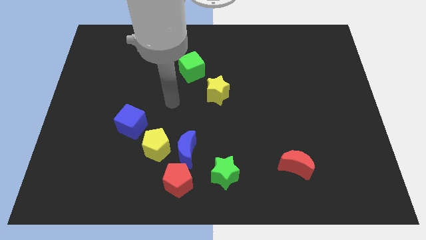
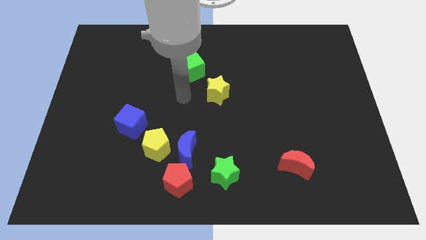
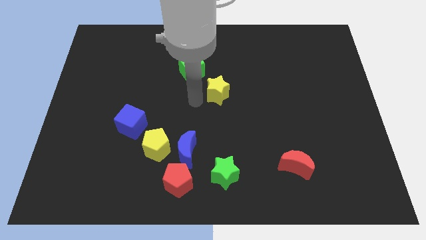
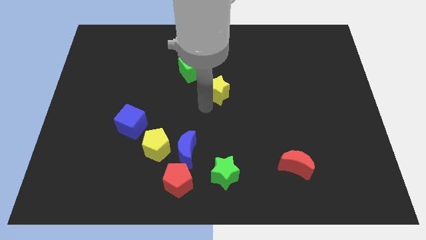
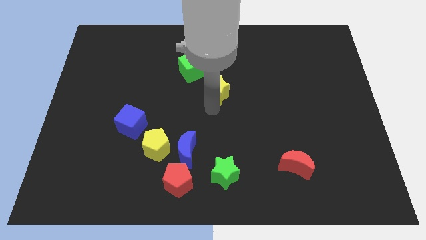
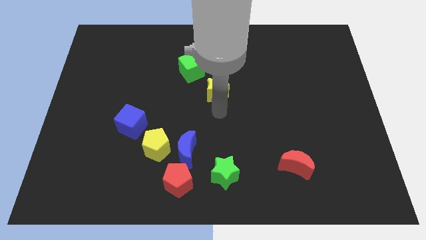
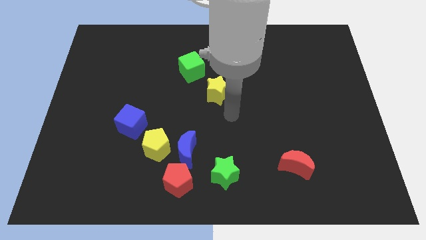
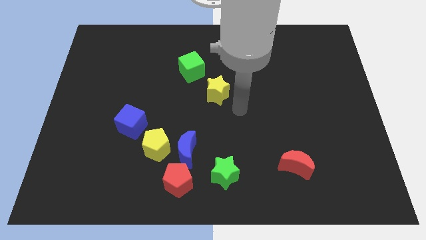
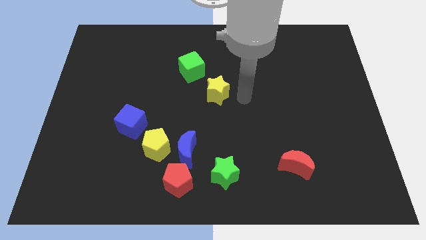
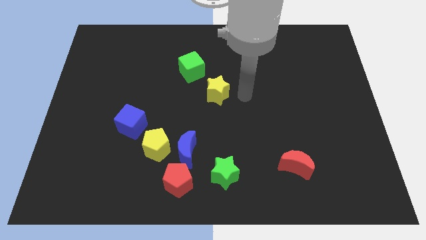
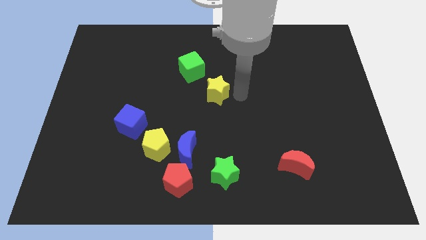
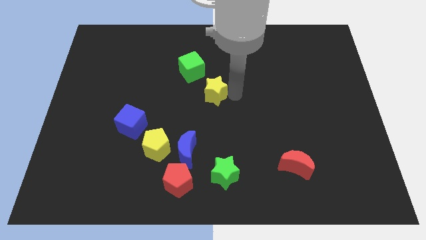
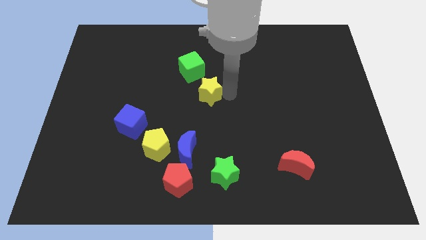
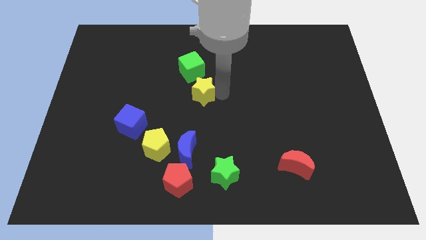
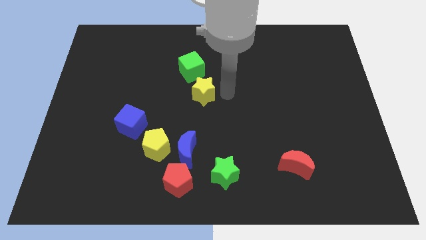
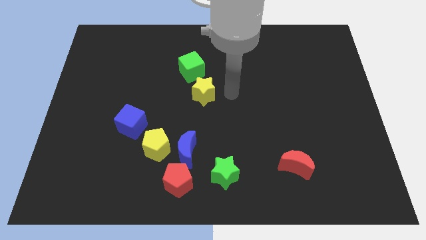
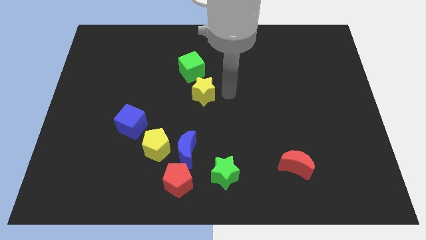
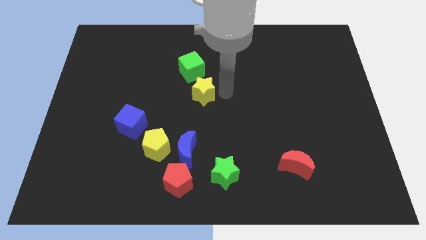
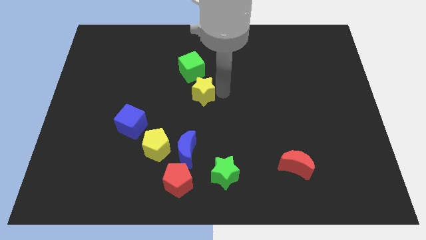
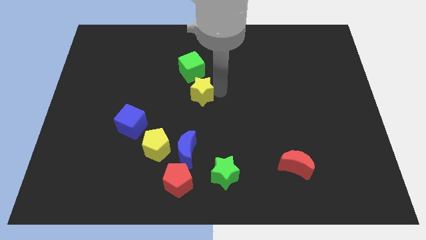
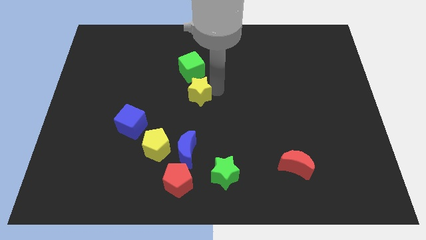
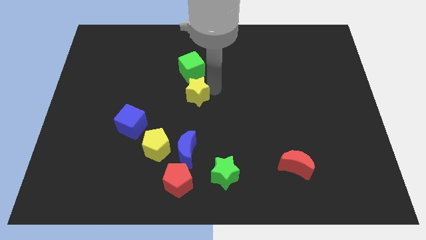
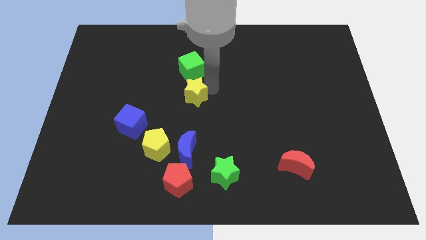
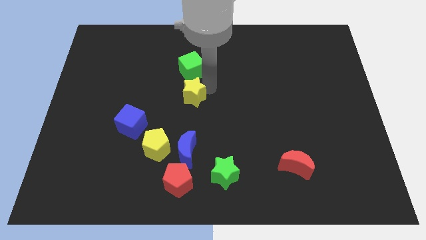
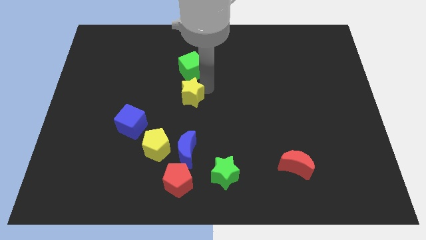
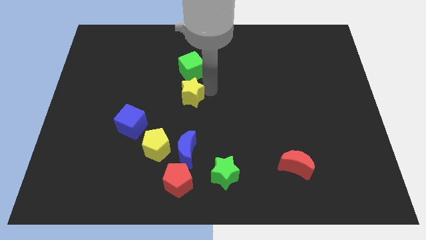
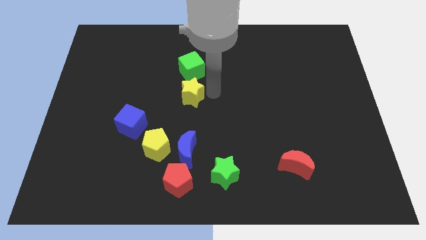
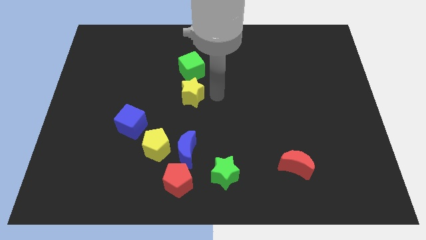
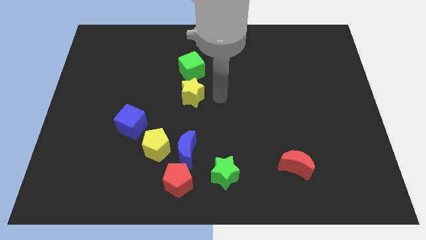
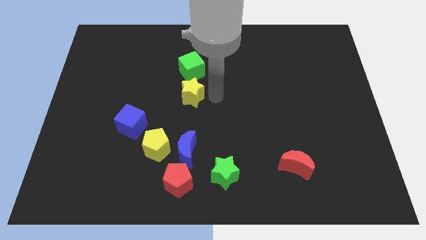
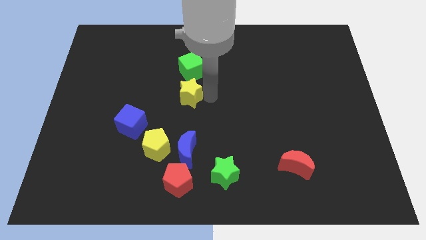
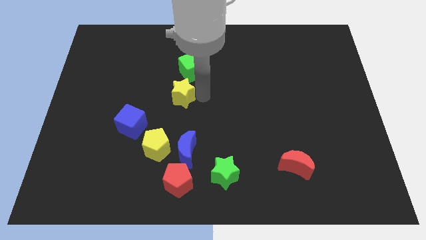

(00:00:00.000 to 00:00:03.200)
slide the yellow star to the left slightly

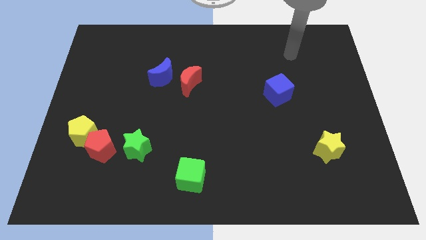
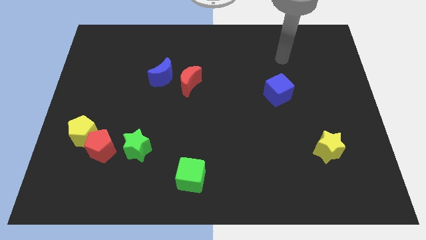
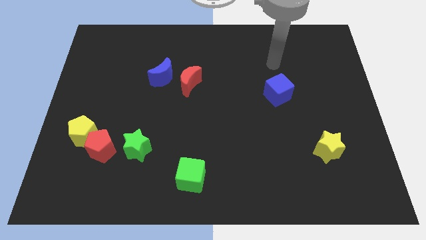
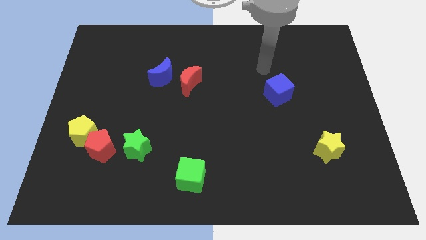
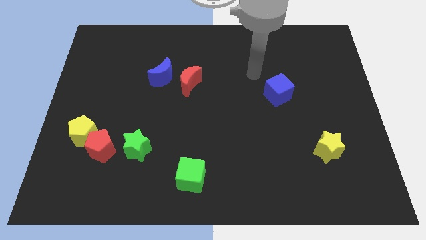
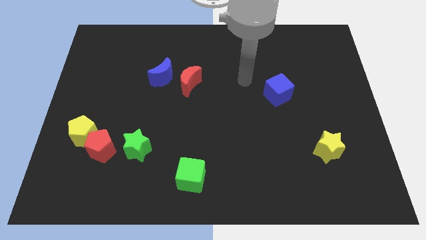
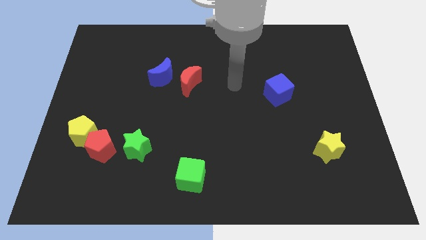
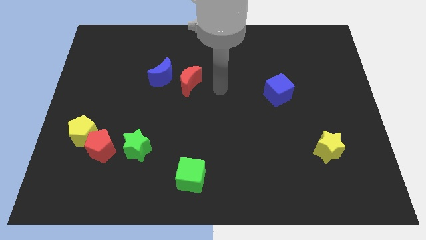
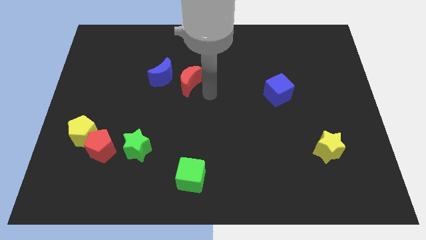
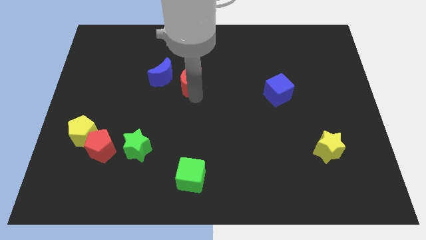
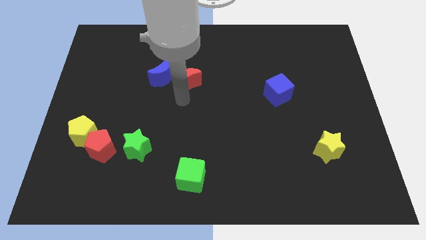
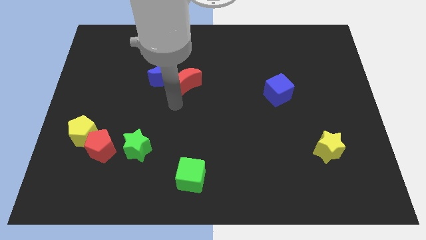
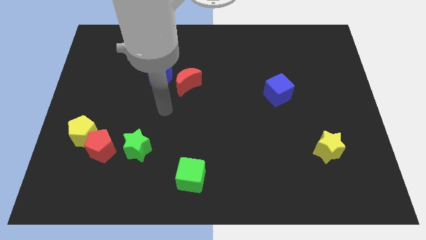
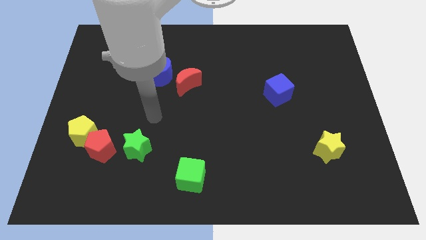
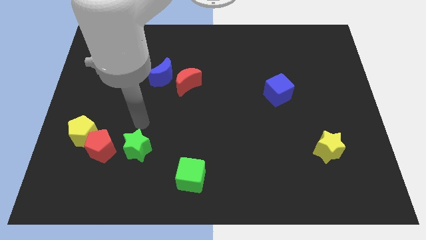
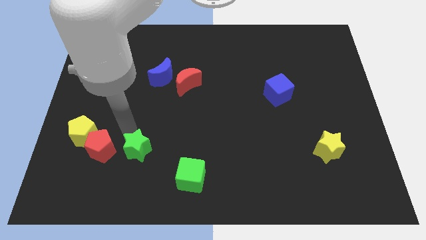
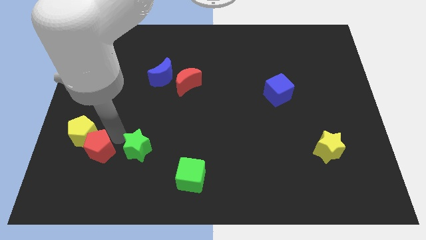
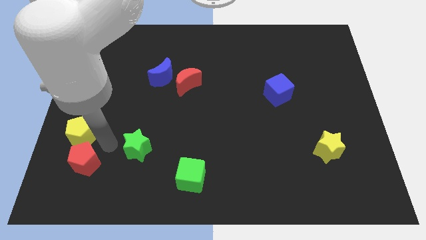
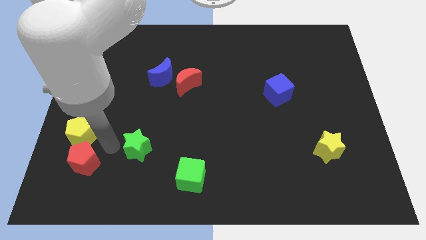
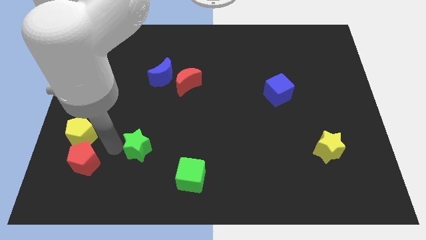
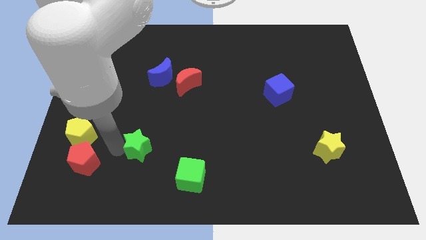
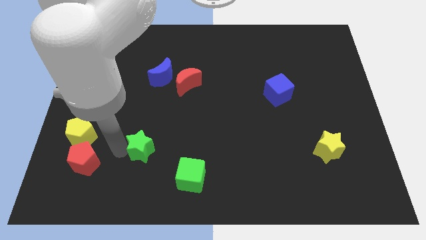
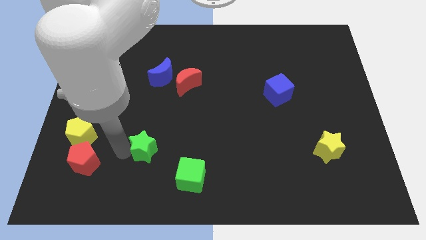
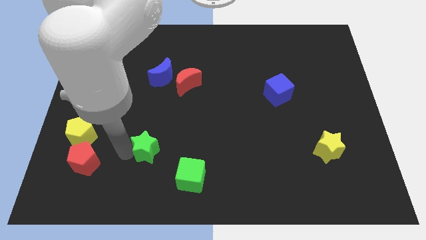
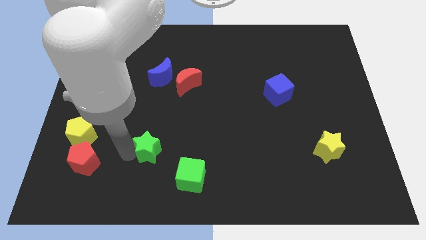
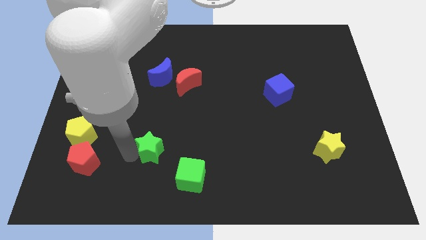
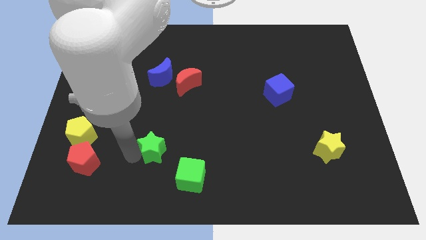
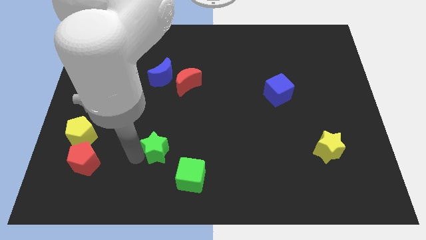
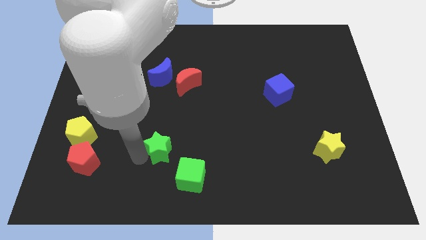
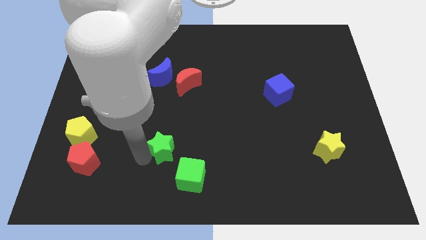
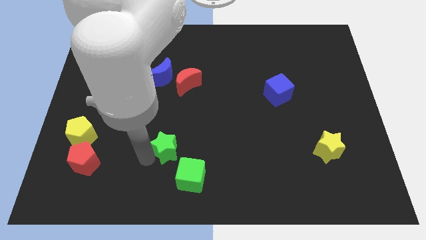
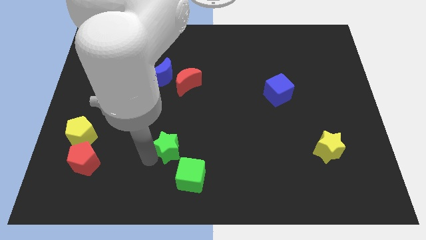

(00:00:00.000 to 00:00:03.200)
move the green star somewhat to the right

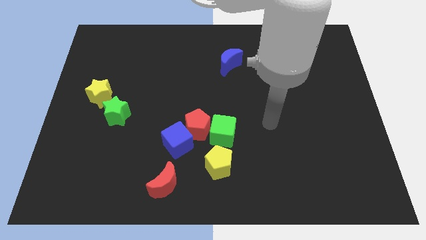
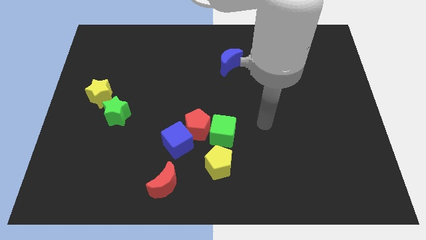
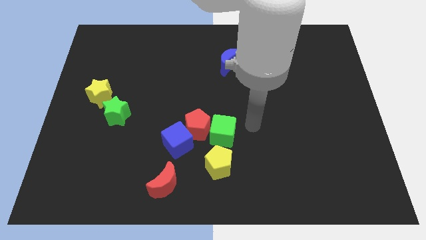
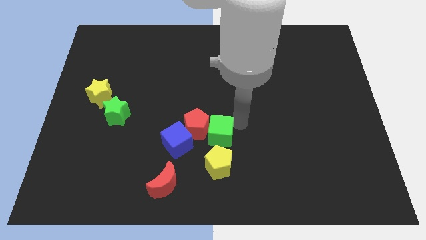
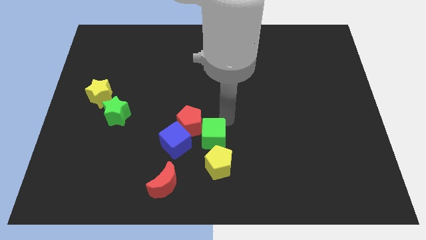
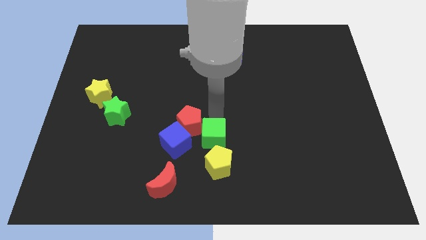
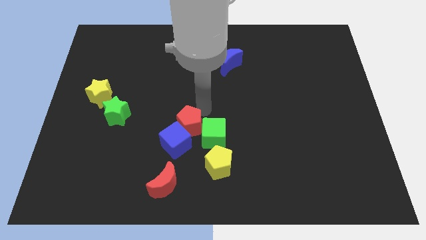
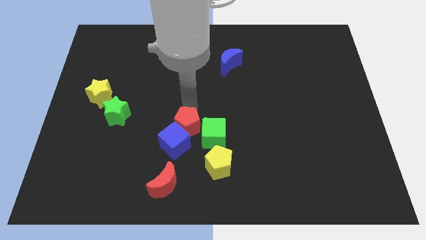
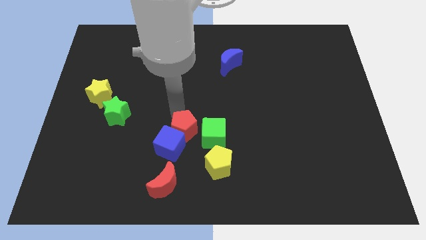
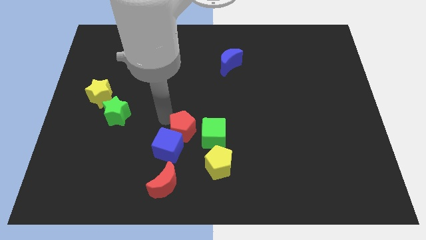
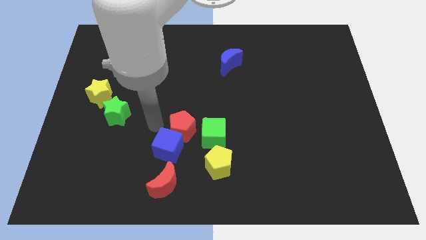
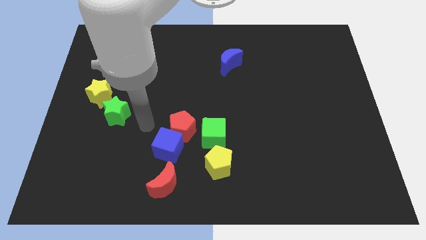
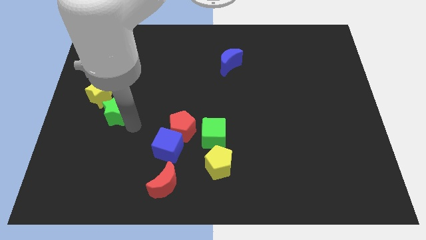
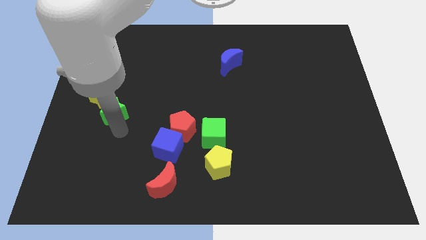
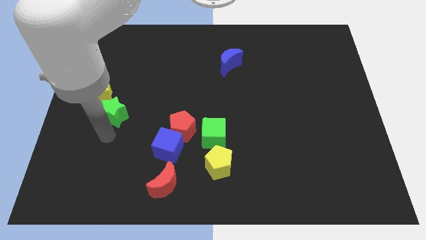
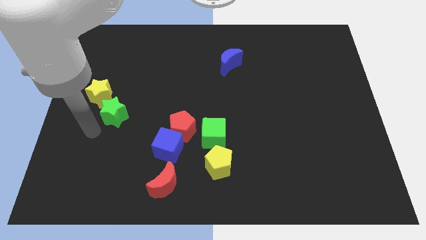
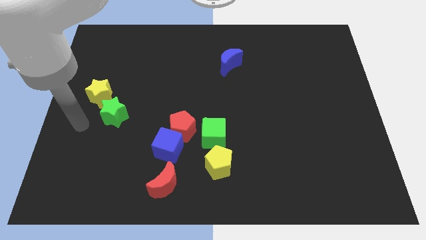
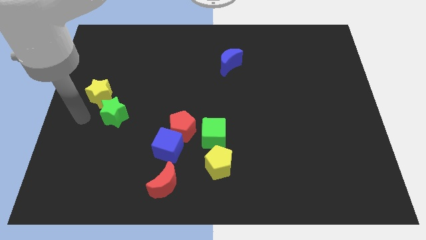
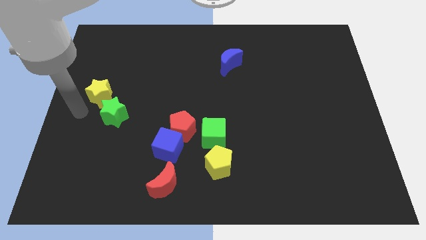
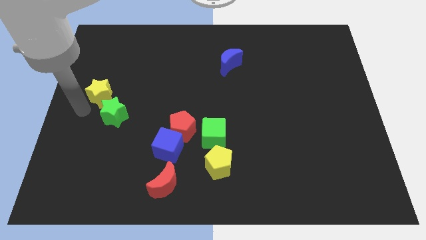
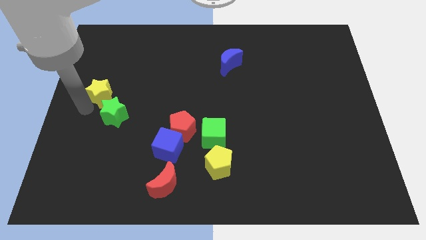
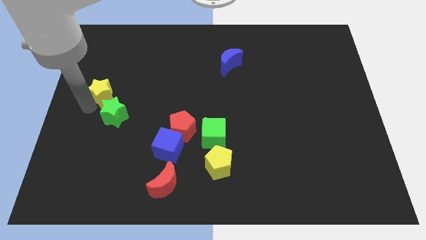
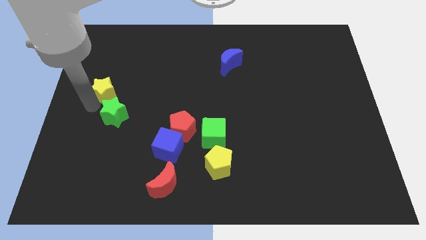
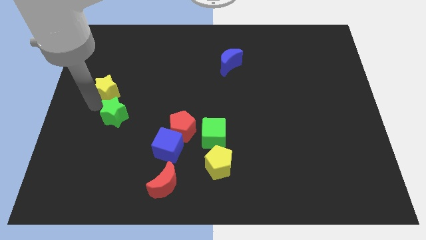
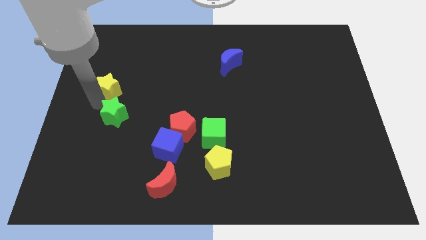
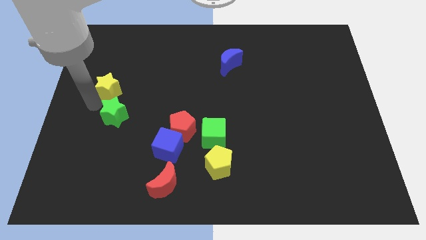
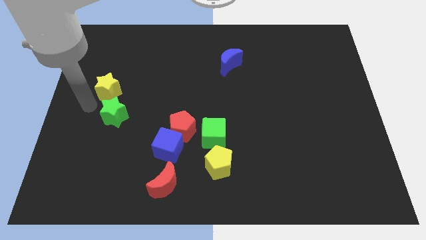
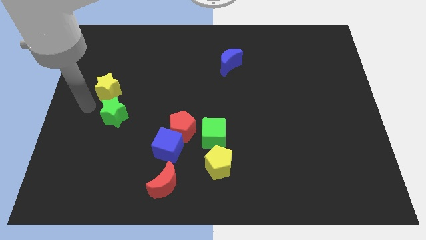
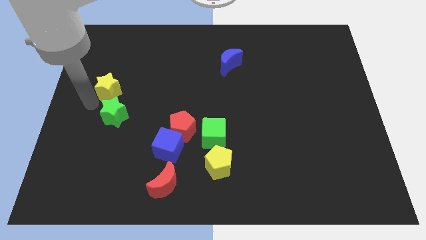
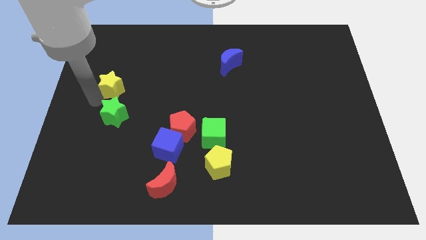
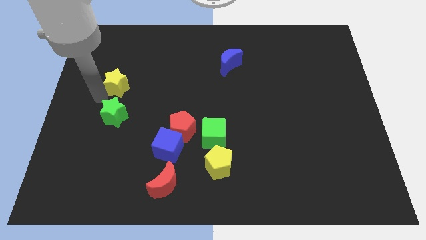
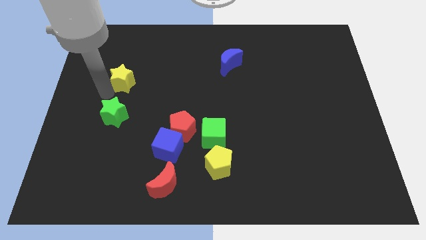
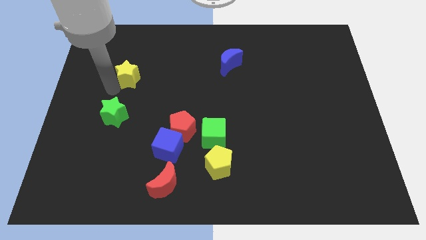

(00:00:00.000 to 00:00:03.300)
slightly slide the yellow star up and then right
